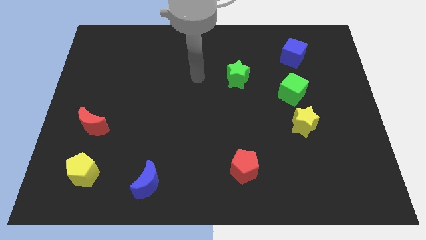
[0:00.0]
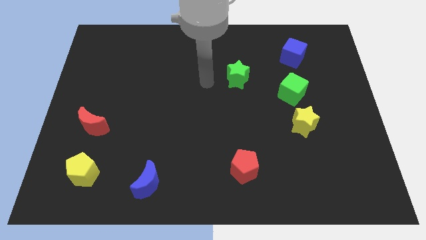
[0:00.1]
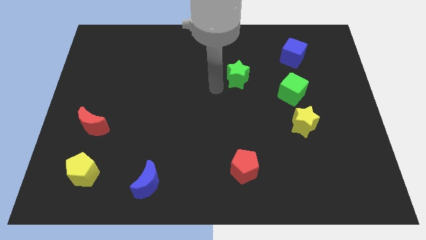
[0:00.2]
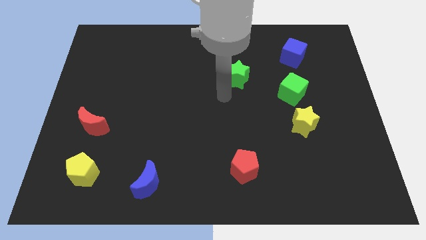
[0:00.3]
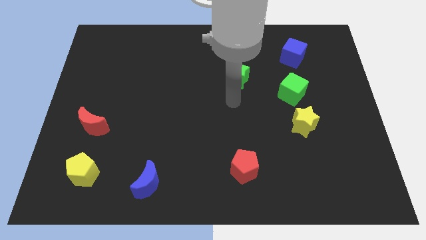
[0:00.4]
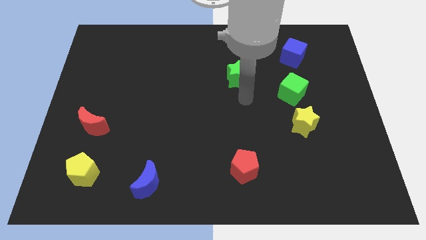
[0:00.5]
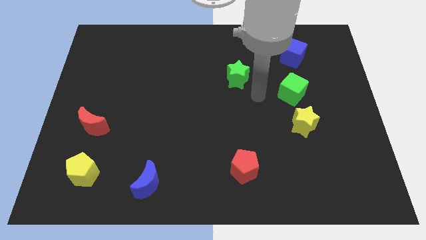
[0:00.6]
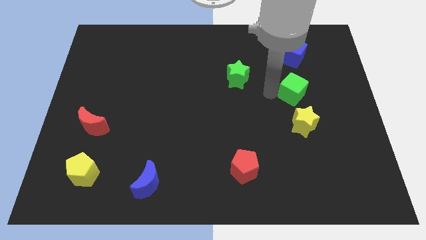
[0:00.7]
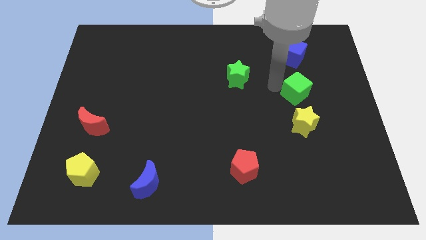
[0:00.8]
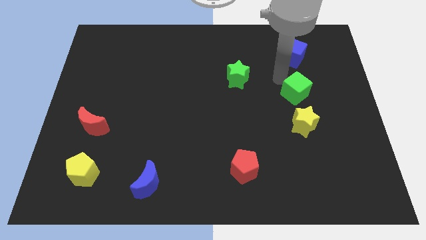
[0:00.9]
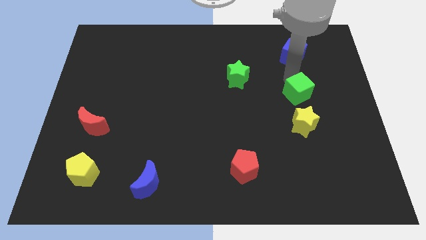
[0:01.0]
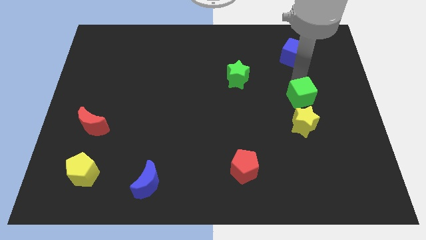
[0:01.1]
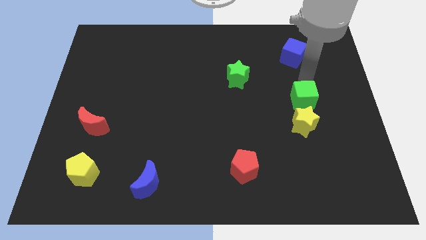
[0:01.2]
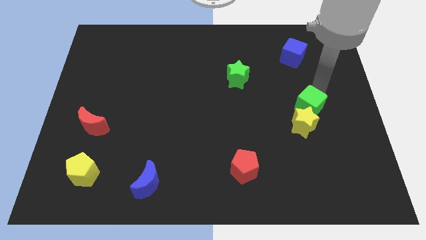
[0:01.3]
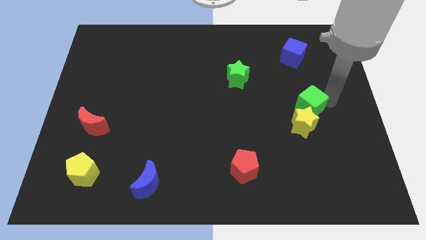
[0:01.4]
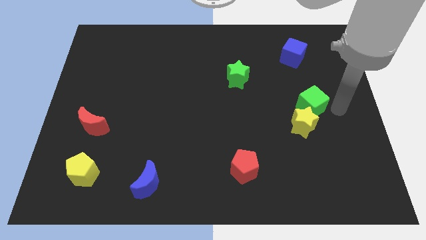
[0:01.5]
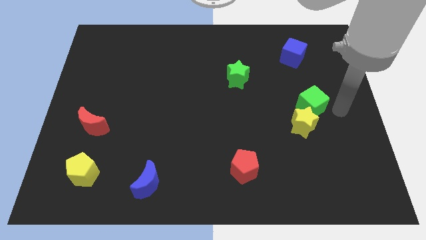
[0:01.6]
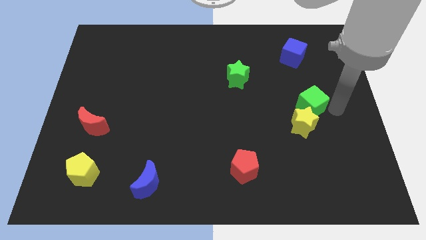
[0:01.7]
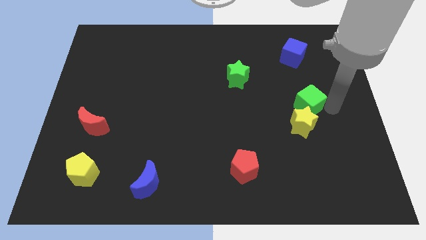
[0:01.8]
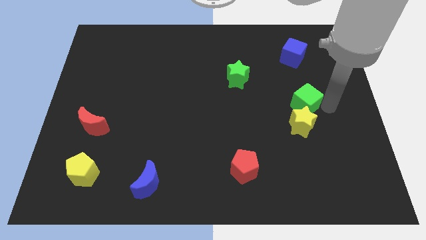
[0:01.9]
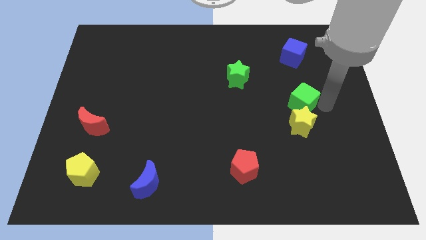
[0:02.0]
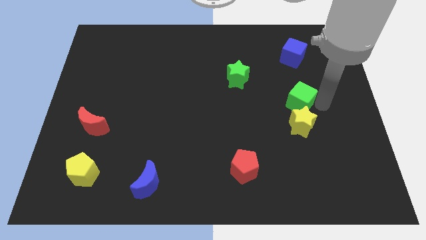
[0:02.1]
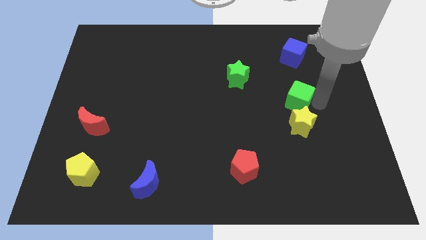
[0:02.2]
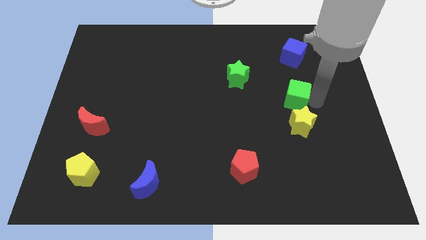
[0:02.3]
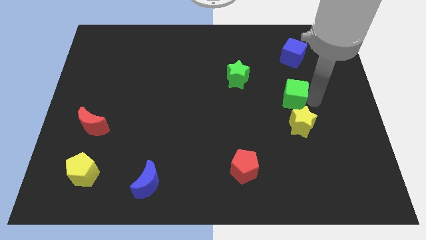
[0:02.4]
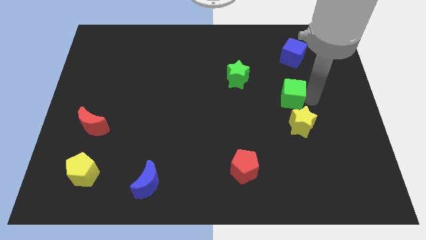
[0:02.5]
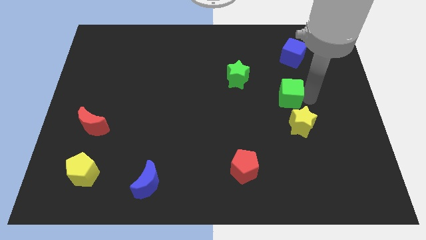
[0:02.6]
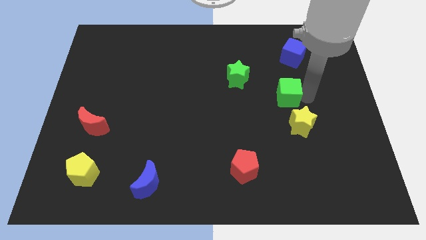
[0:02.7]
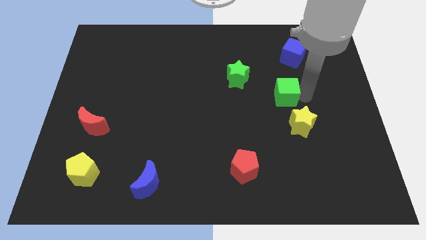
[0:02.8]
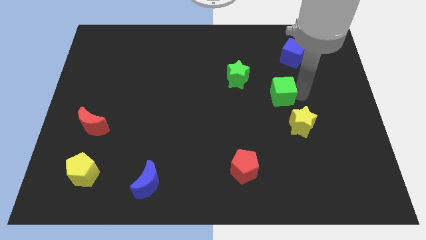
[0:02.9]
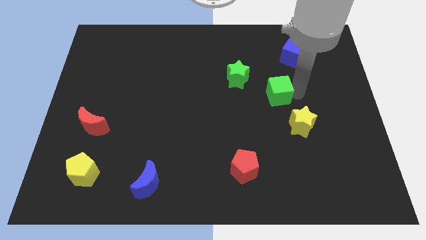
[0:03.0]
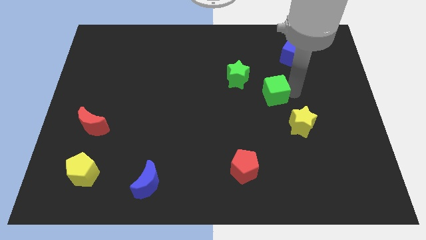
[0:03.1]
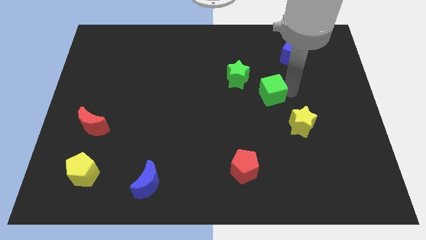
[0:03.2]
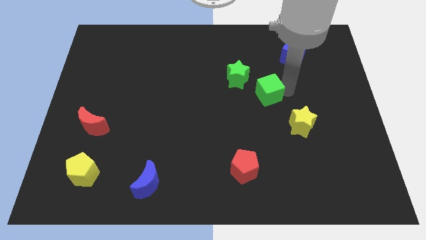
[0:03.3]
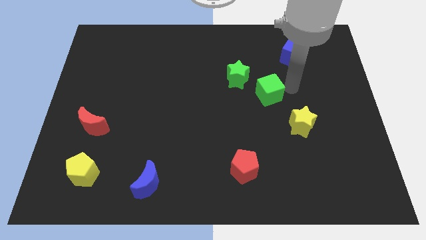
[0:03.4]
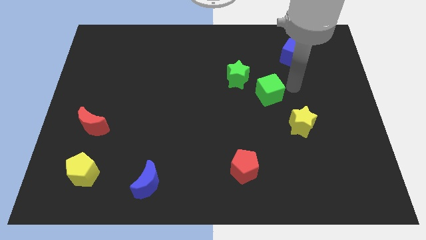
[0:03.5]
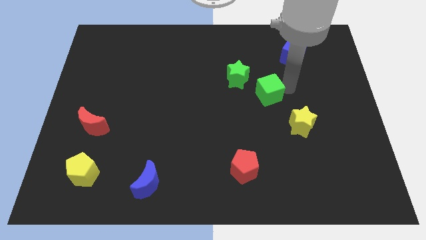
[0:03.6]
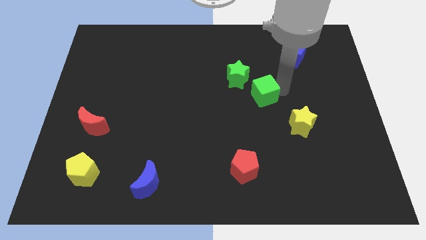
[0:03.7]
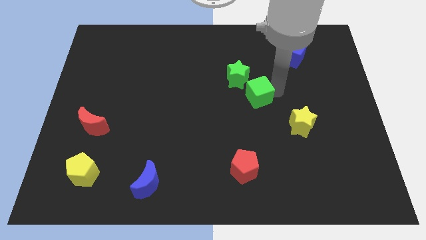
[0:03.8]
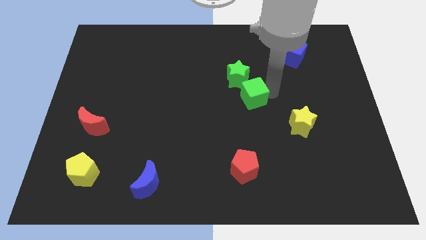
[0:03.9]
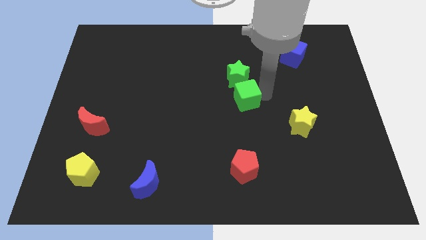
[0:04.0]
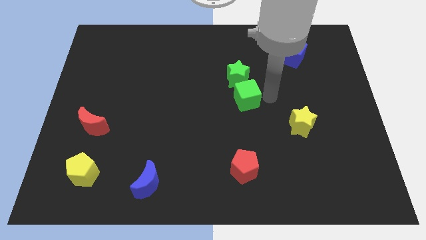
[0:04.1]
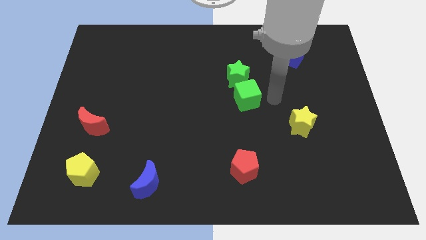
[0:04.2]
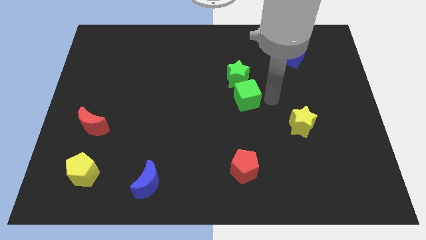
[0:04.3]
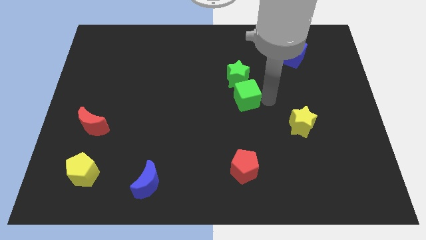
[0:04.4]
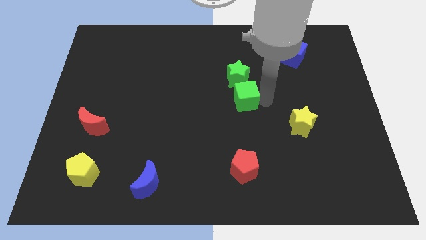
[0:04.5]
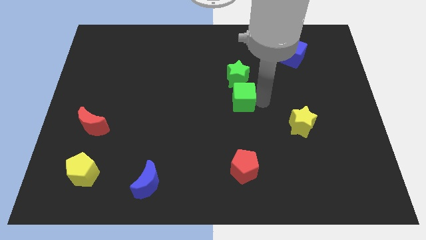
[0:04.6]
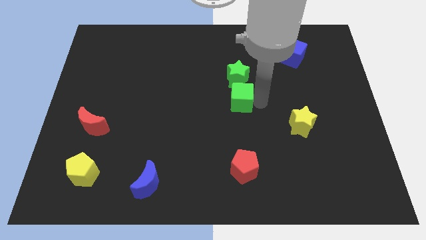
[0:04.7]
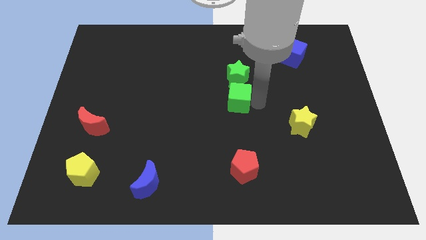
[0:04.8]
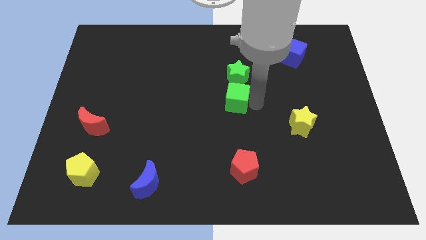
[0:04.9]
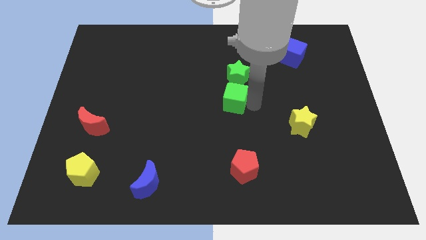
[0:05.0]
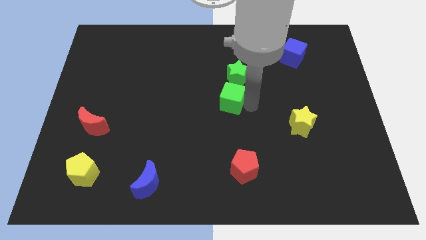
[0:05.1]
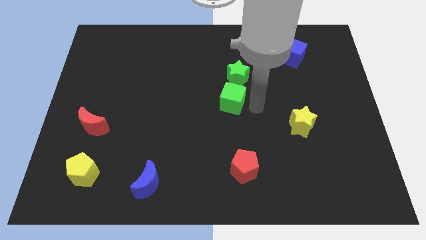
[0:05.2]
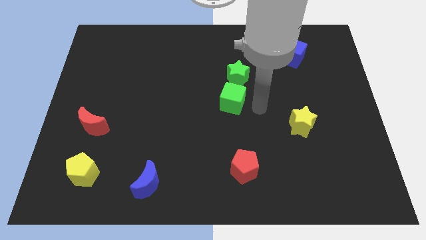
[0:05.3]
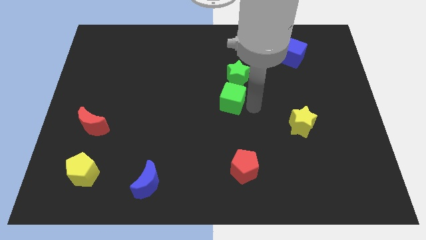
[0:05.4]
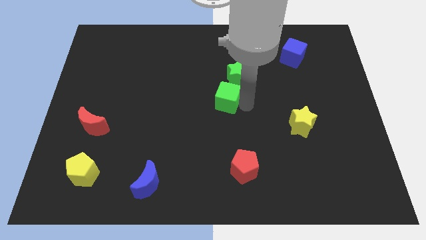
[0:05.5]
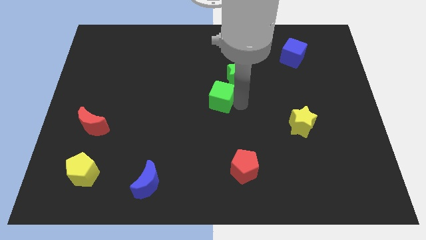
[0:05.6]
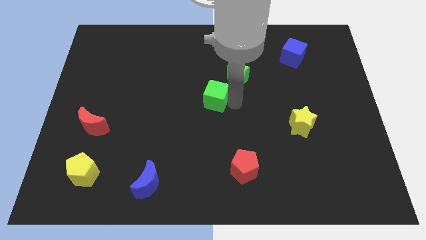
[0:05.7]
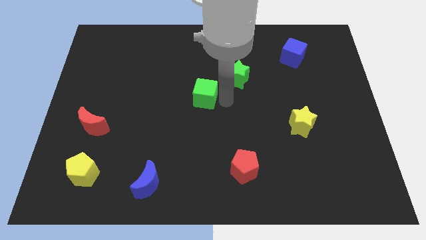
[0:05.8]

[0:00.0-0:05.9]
move the green cube left

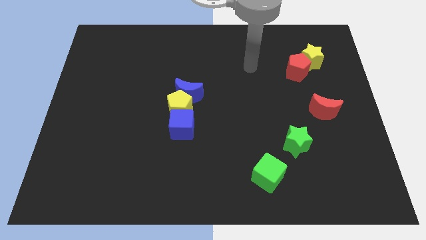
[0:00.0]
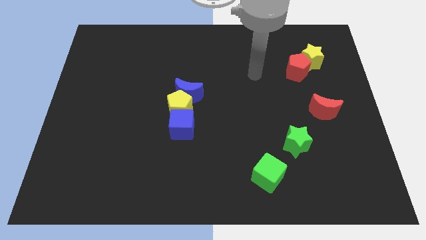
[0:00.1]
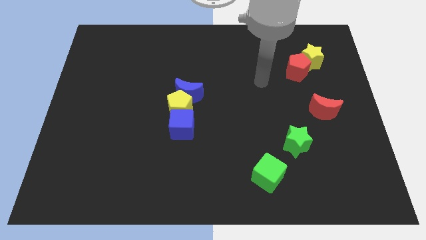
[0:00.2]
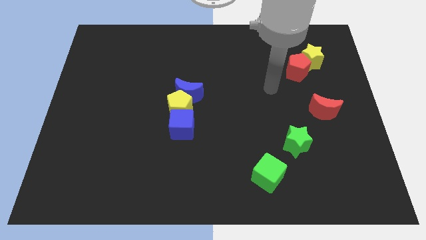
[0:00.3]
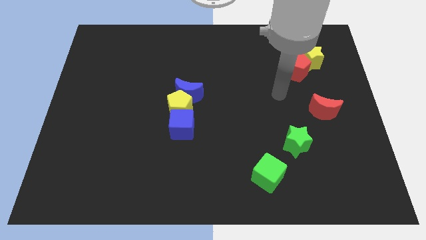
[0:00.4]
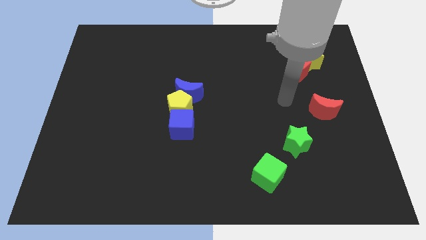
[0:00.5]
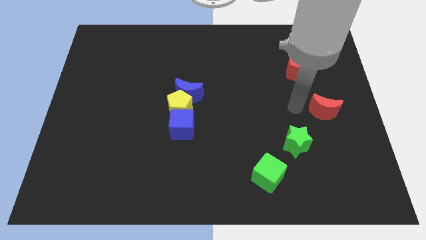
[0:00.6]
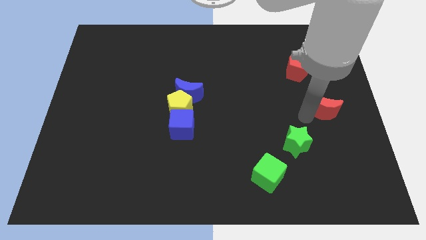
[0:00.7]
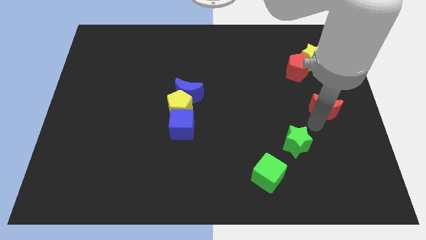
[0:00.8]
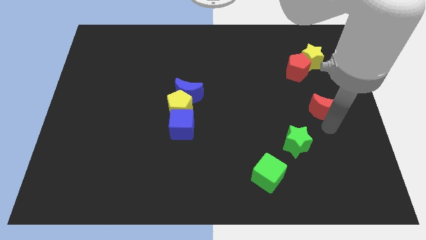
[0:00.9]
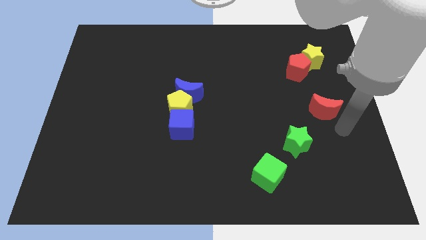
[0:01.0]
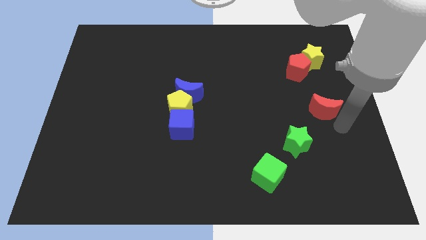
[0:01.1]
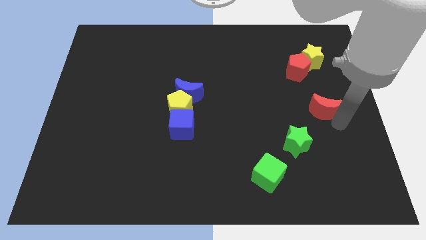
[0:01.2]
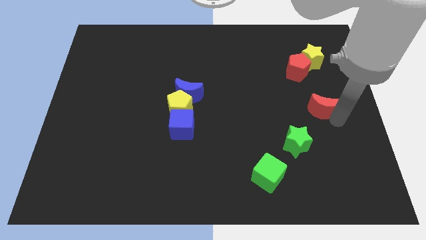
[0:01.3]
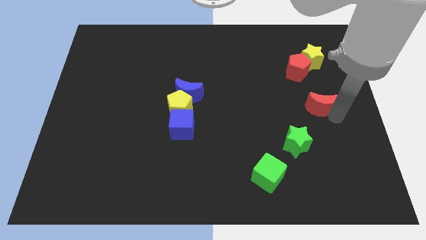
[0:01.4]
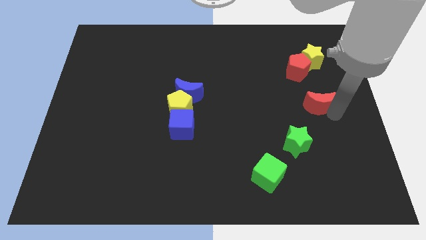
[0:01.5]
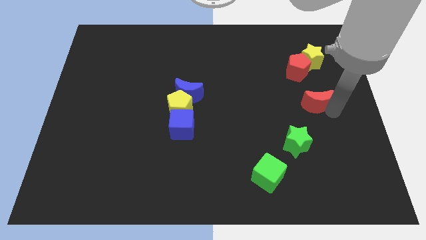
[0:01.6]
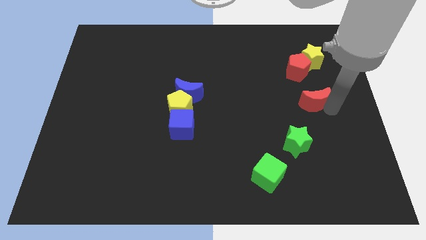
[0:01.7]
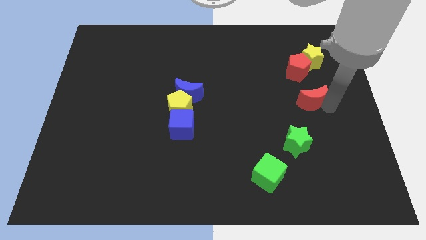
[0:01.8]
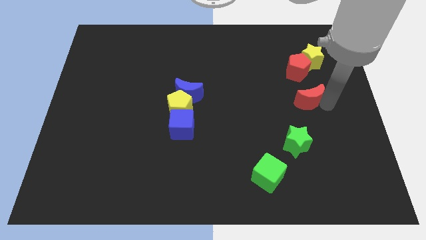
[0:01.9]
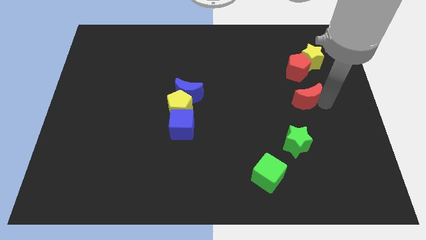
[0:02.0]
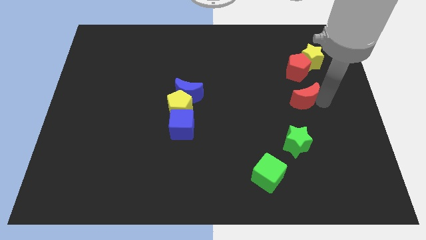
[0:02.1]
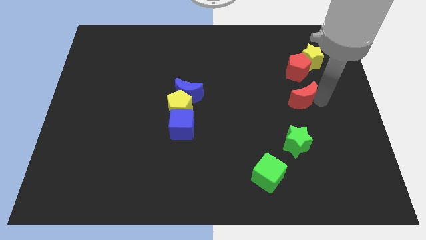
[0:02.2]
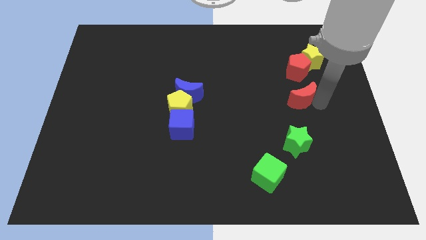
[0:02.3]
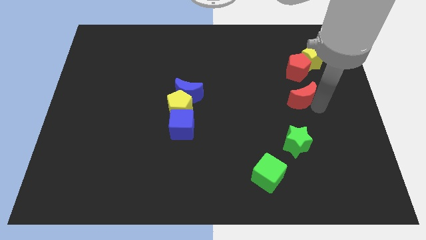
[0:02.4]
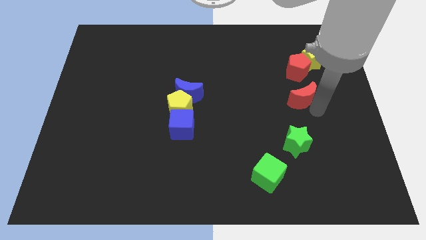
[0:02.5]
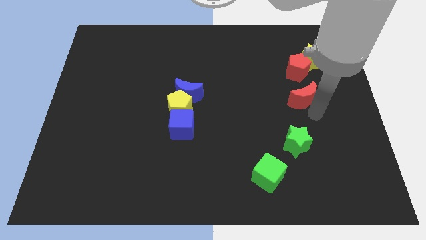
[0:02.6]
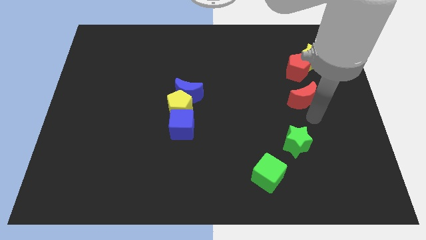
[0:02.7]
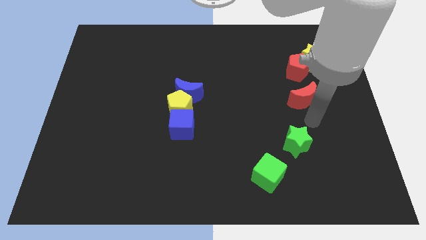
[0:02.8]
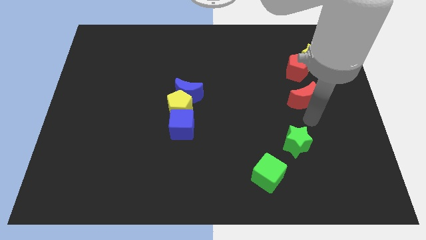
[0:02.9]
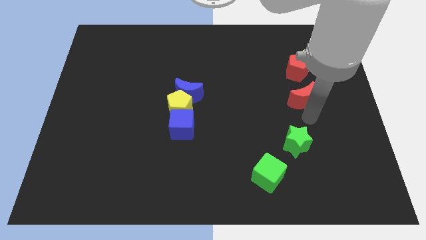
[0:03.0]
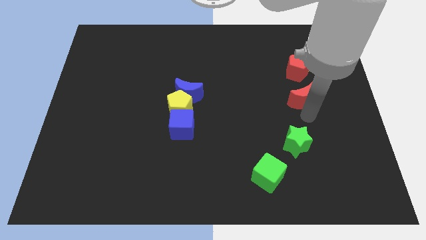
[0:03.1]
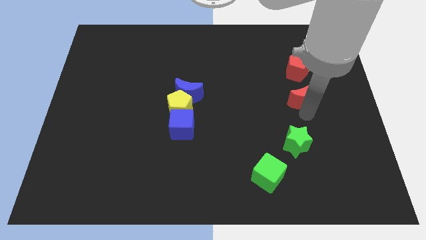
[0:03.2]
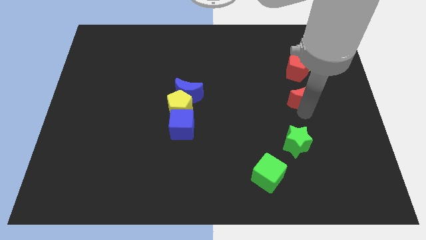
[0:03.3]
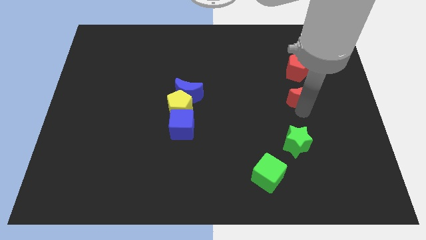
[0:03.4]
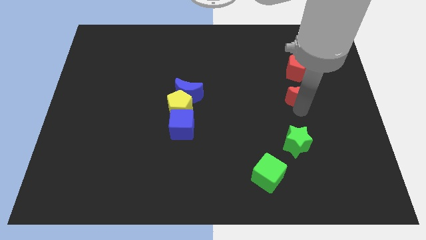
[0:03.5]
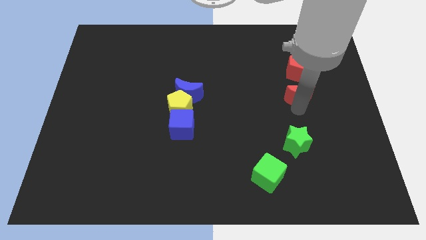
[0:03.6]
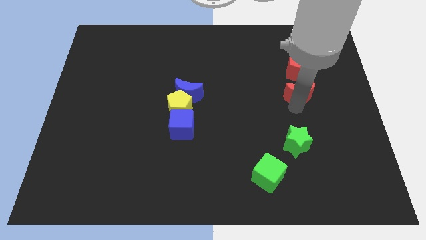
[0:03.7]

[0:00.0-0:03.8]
push the red moon upwards and then left slightly
